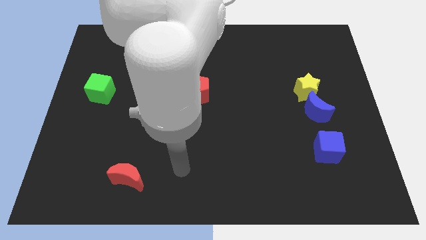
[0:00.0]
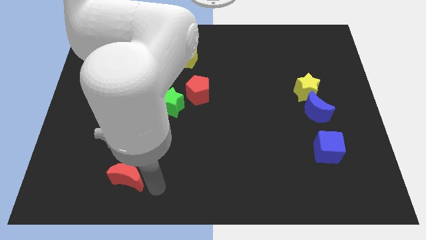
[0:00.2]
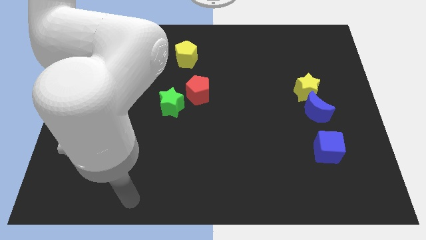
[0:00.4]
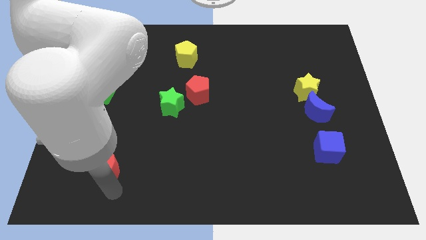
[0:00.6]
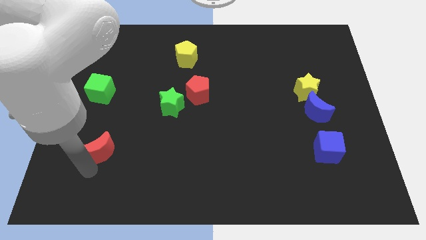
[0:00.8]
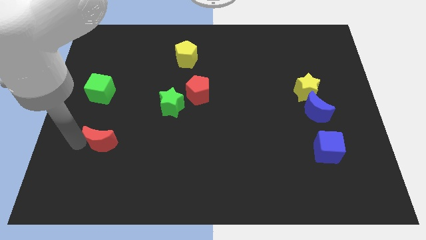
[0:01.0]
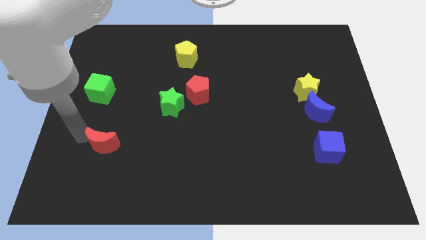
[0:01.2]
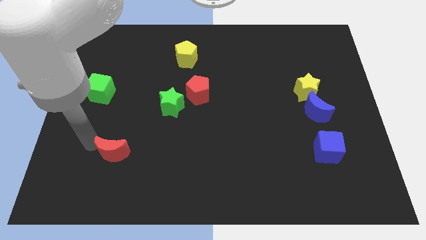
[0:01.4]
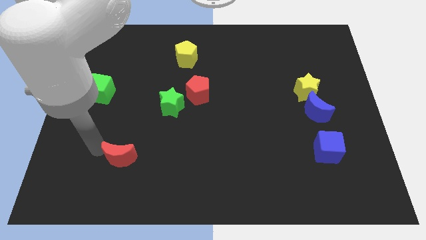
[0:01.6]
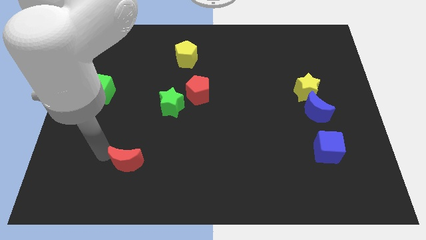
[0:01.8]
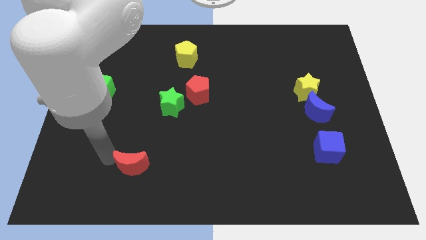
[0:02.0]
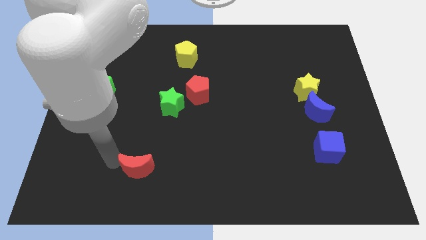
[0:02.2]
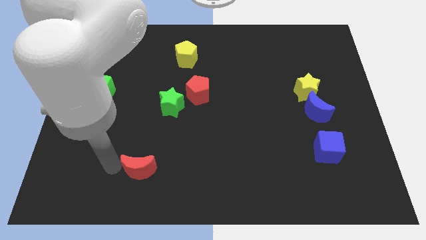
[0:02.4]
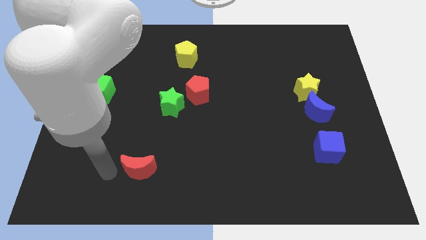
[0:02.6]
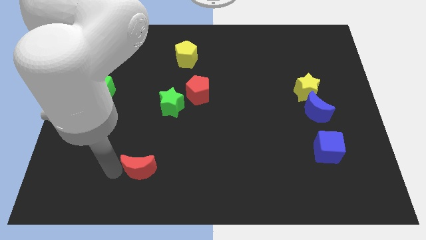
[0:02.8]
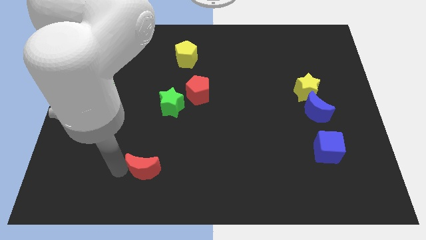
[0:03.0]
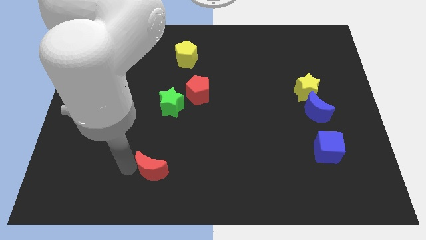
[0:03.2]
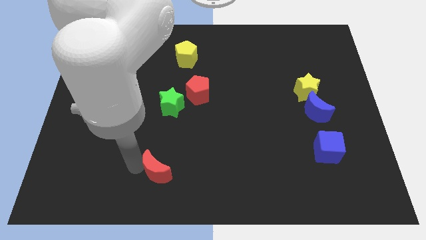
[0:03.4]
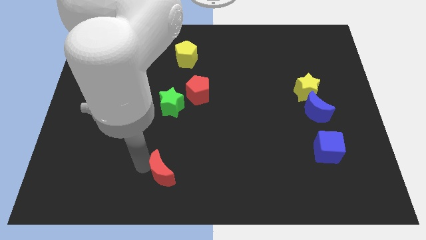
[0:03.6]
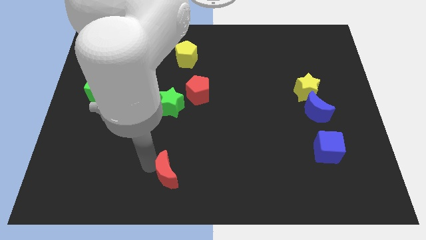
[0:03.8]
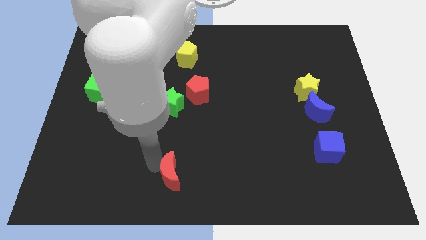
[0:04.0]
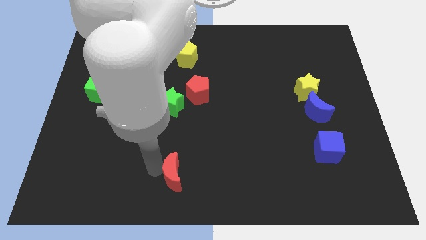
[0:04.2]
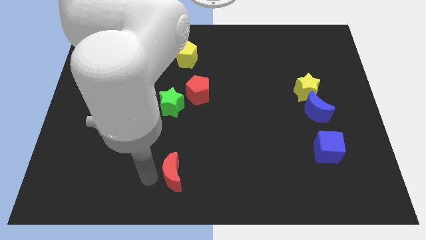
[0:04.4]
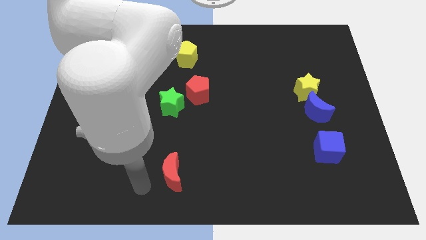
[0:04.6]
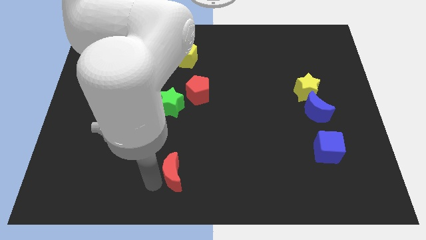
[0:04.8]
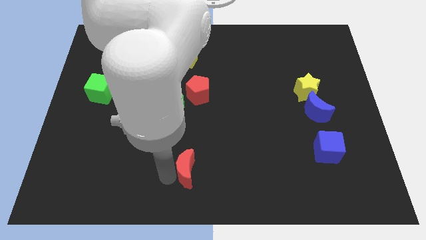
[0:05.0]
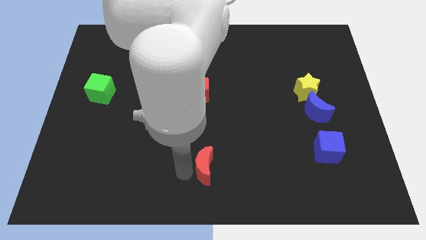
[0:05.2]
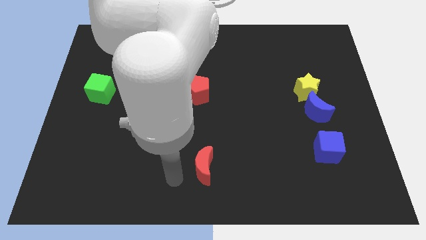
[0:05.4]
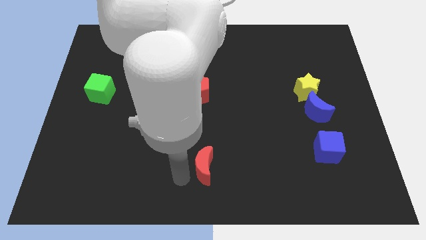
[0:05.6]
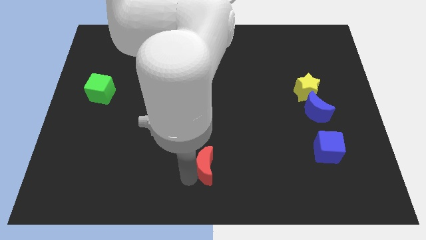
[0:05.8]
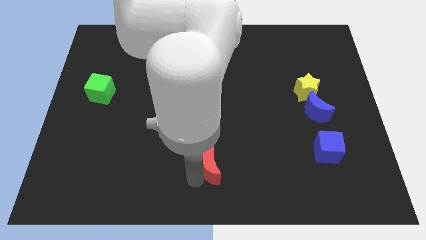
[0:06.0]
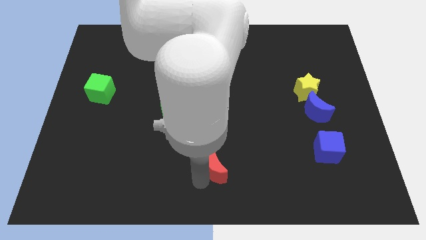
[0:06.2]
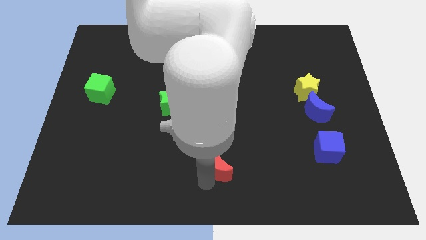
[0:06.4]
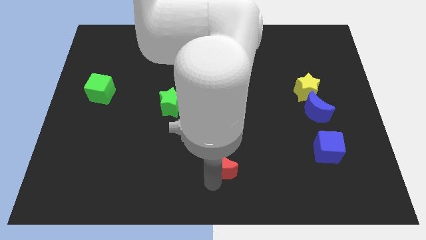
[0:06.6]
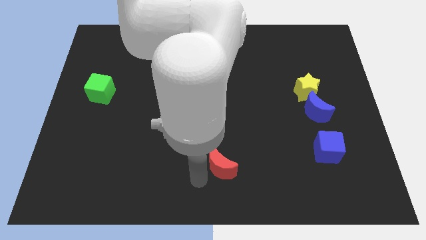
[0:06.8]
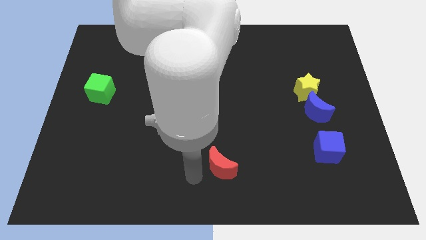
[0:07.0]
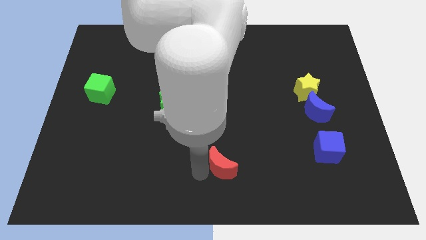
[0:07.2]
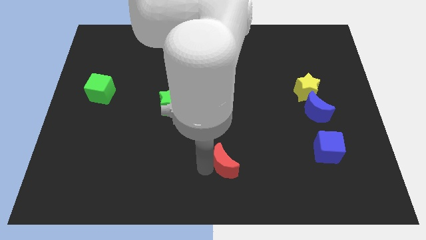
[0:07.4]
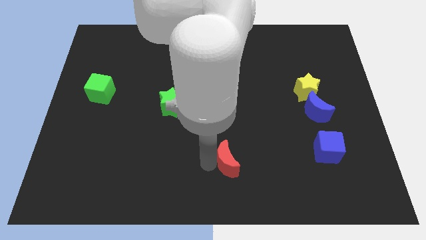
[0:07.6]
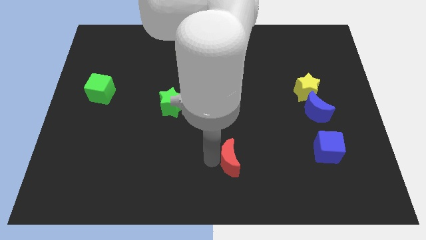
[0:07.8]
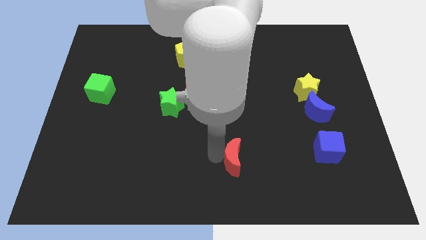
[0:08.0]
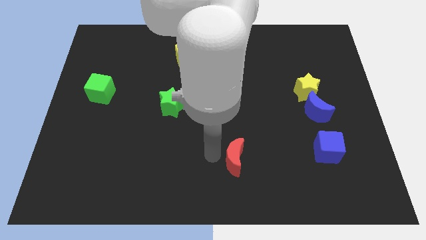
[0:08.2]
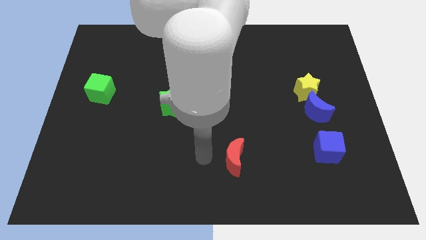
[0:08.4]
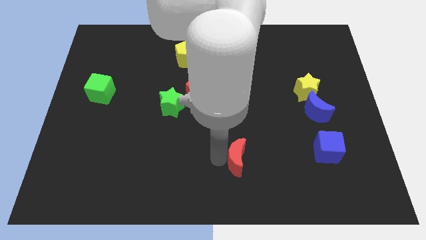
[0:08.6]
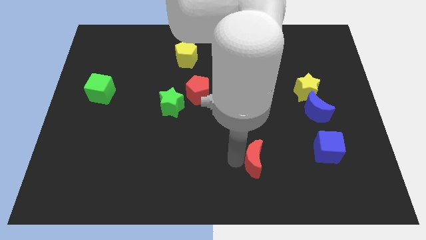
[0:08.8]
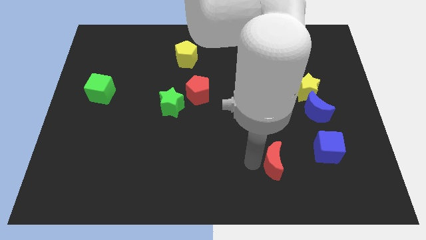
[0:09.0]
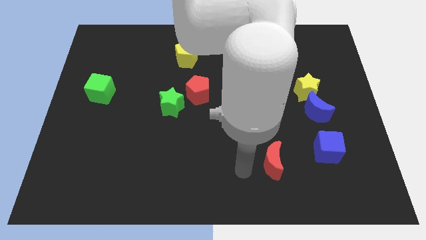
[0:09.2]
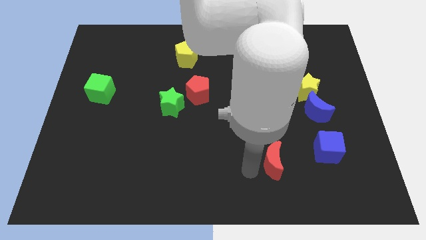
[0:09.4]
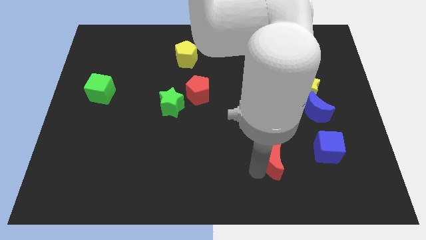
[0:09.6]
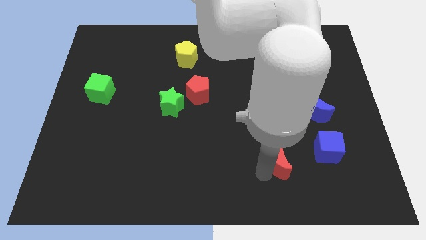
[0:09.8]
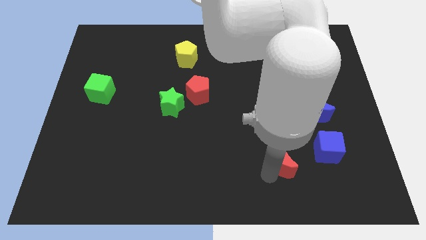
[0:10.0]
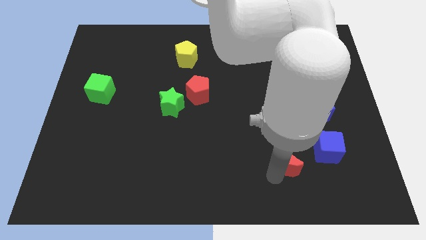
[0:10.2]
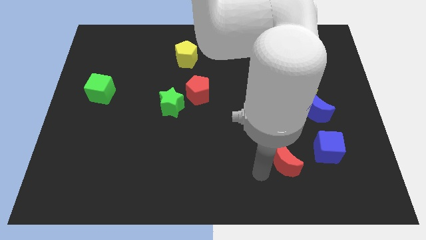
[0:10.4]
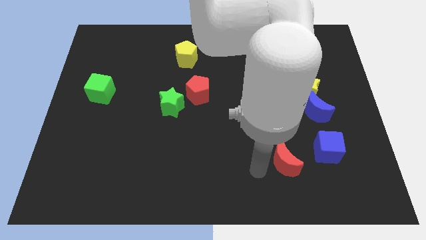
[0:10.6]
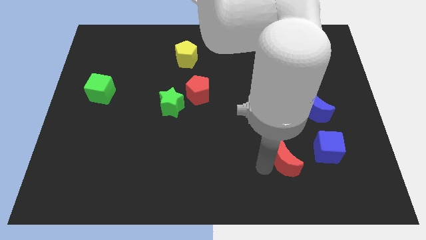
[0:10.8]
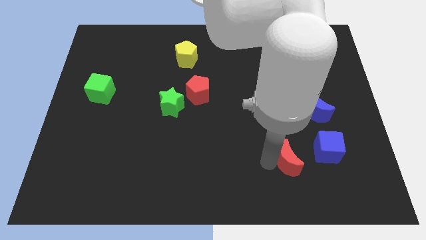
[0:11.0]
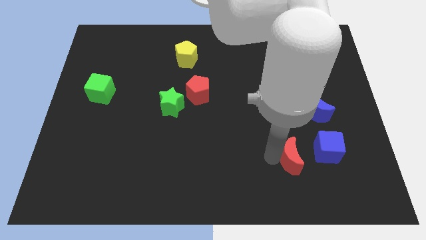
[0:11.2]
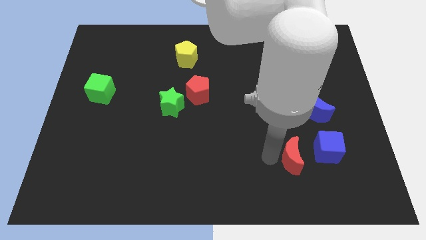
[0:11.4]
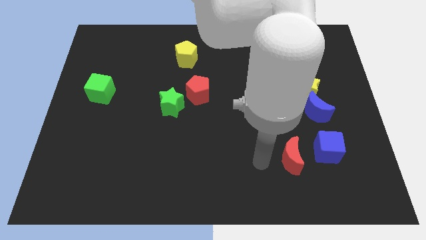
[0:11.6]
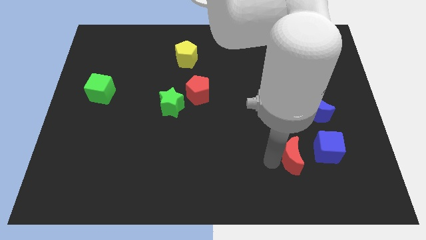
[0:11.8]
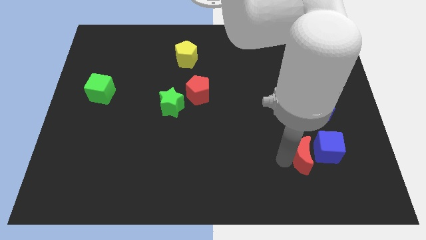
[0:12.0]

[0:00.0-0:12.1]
put the red moon close to the blue cube

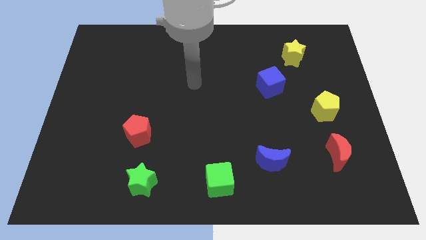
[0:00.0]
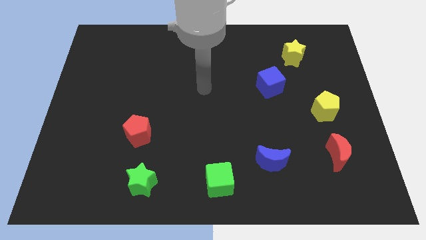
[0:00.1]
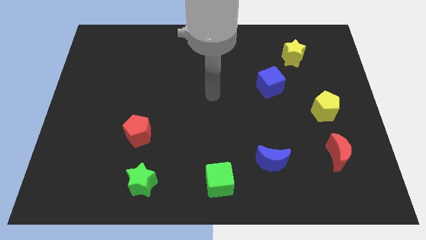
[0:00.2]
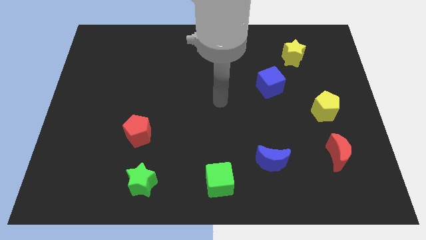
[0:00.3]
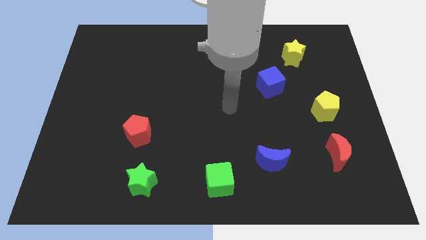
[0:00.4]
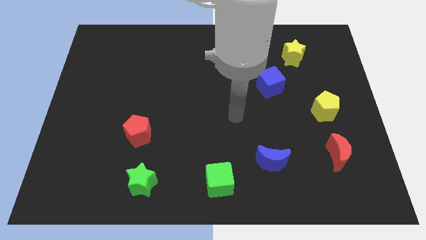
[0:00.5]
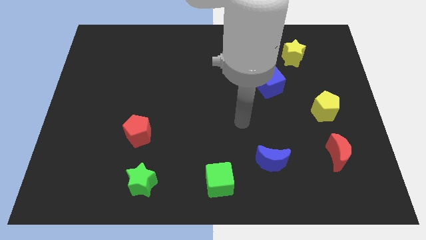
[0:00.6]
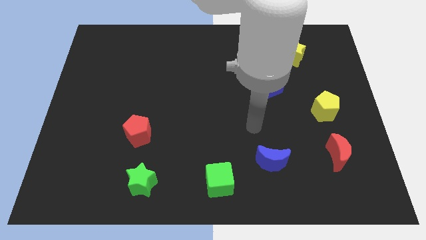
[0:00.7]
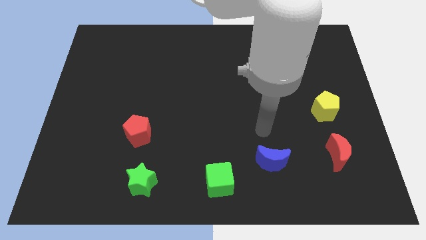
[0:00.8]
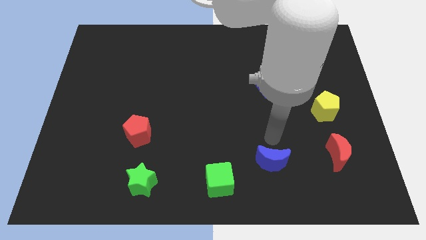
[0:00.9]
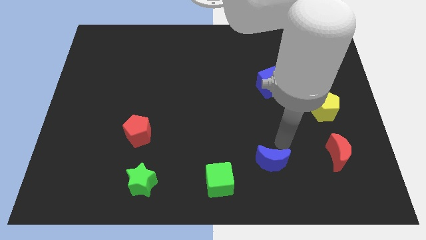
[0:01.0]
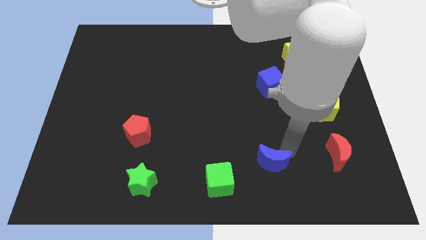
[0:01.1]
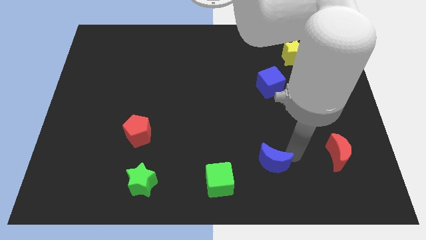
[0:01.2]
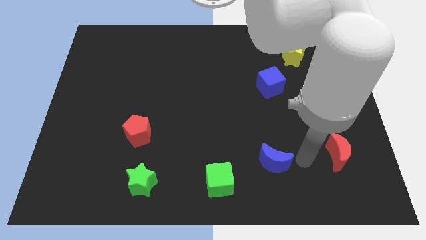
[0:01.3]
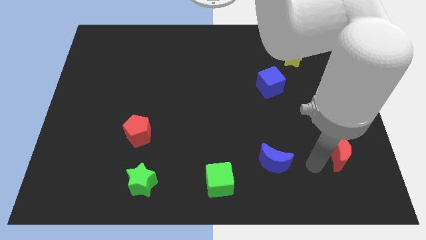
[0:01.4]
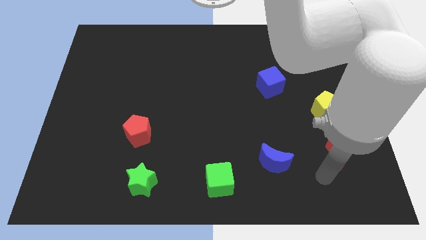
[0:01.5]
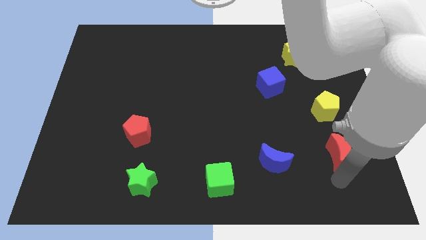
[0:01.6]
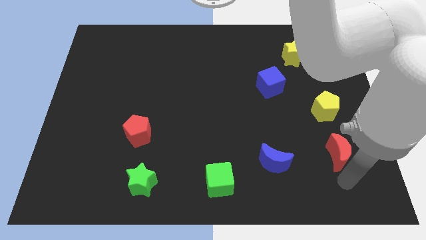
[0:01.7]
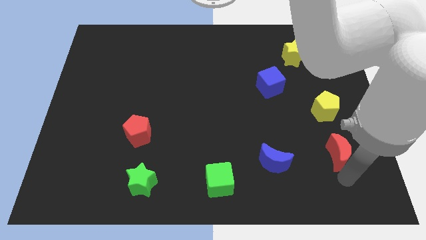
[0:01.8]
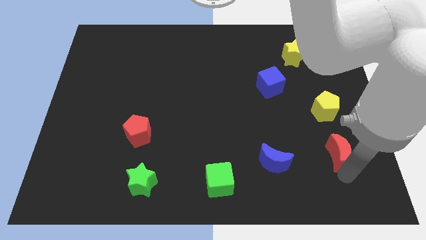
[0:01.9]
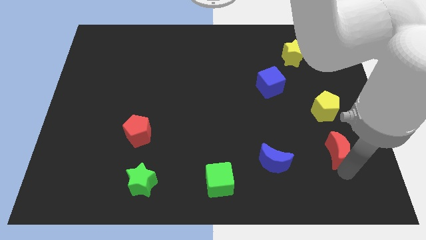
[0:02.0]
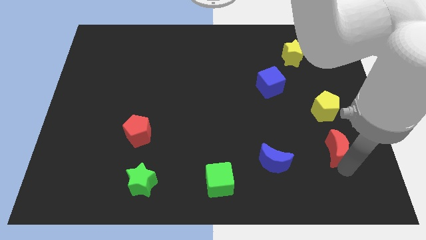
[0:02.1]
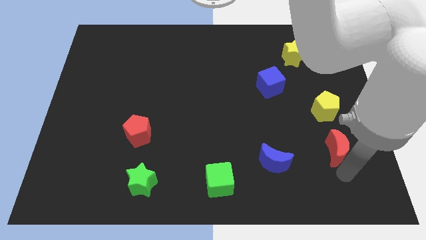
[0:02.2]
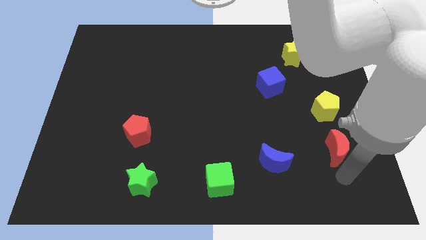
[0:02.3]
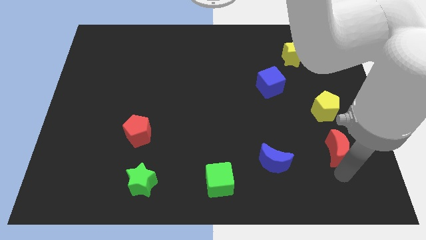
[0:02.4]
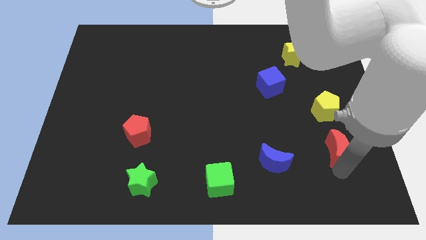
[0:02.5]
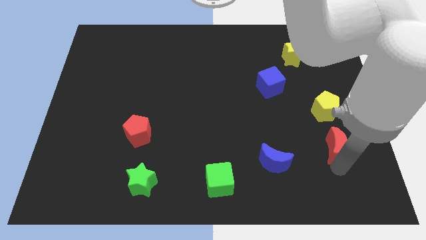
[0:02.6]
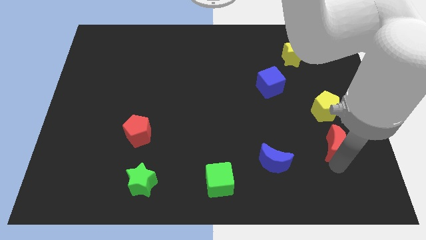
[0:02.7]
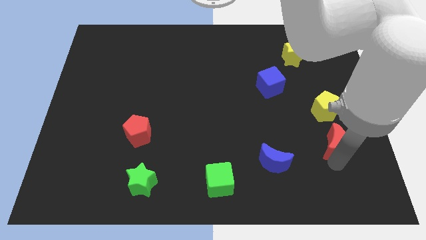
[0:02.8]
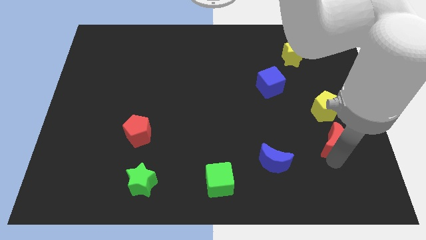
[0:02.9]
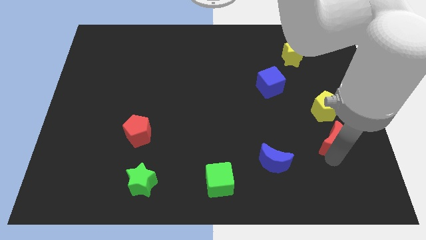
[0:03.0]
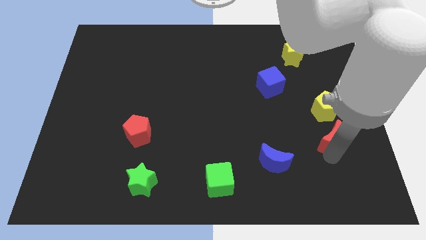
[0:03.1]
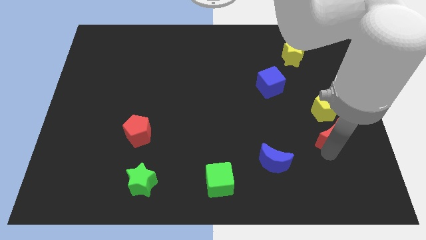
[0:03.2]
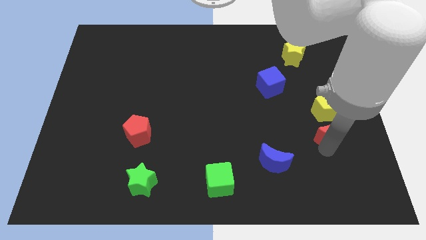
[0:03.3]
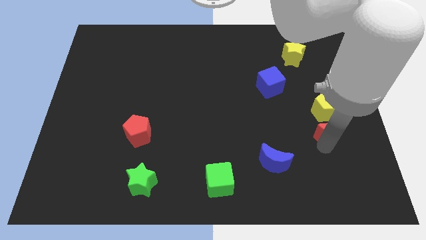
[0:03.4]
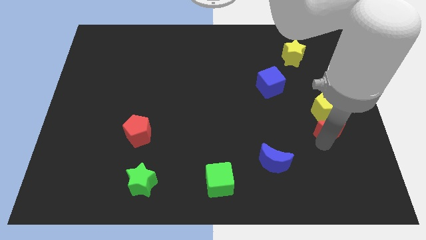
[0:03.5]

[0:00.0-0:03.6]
put the red moon close to the yellow pentagon
